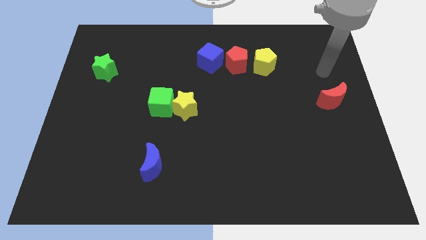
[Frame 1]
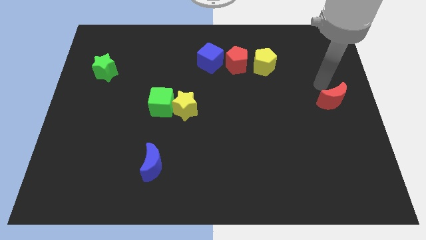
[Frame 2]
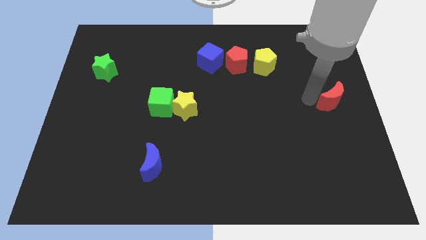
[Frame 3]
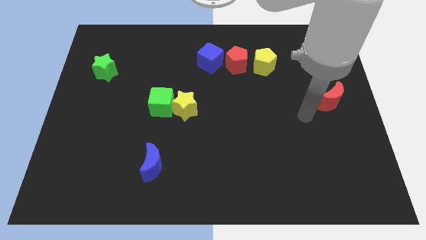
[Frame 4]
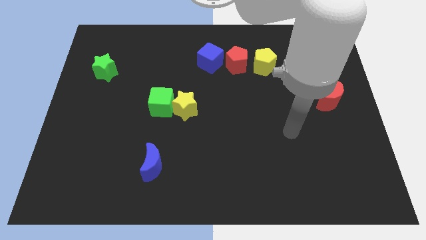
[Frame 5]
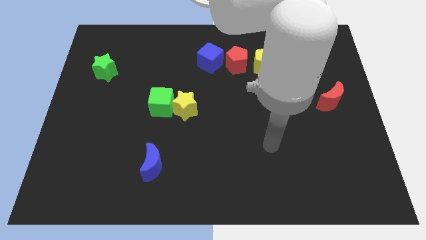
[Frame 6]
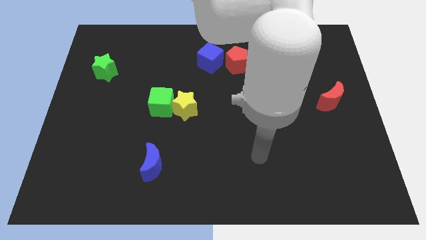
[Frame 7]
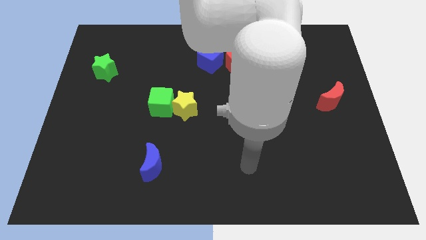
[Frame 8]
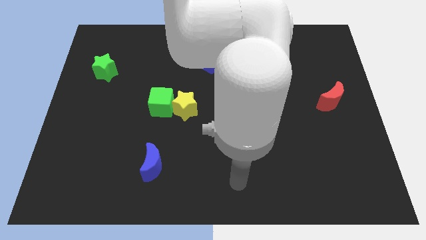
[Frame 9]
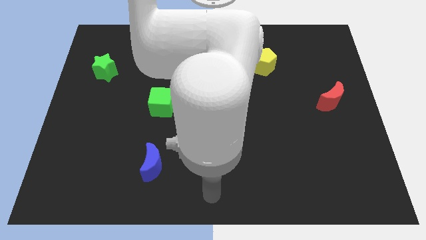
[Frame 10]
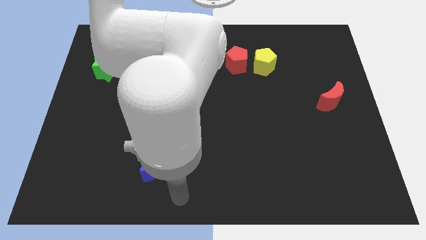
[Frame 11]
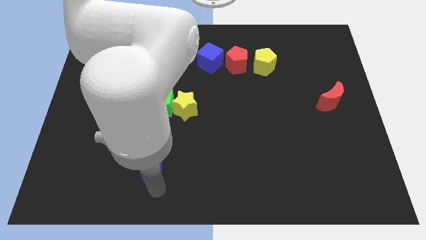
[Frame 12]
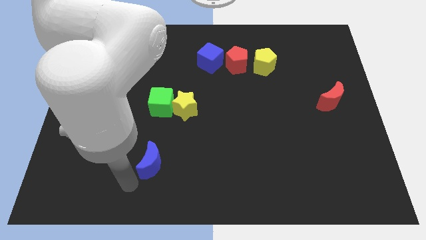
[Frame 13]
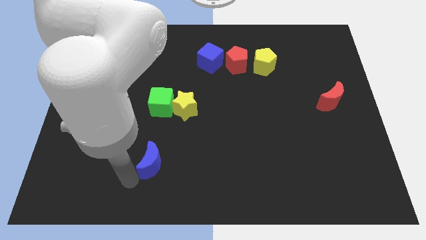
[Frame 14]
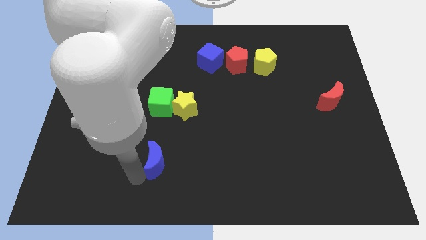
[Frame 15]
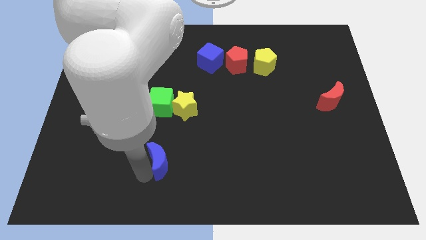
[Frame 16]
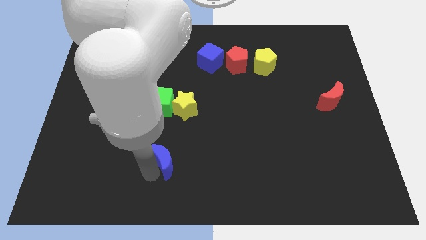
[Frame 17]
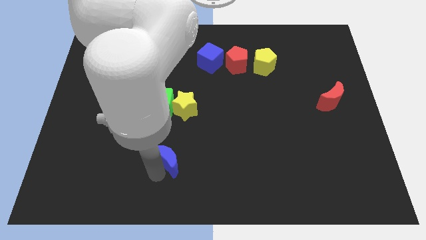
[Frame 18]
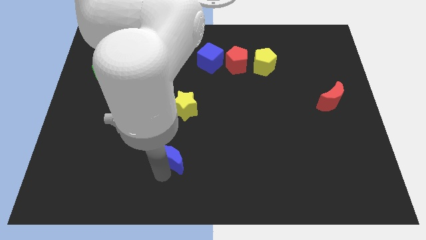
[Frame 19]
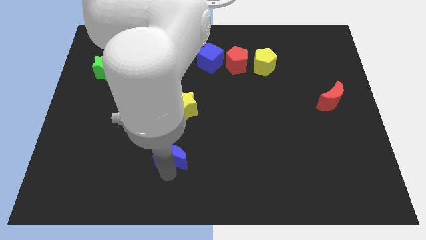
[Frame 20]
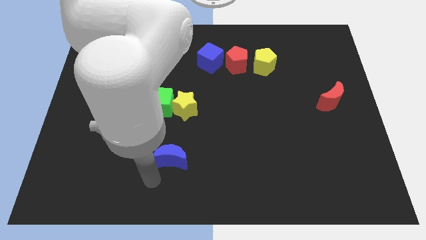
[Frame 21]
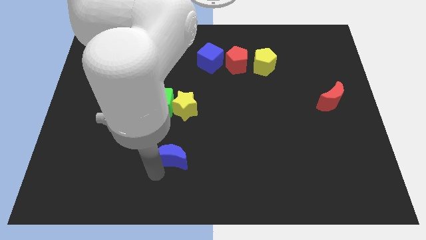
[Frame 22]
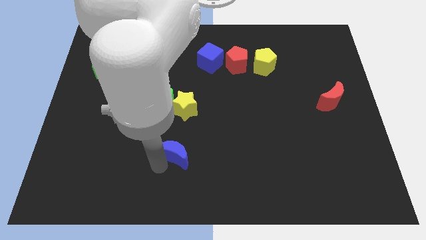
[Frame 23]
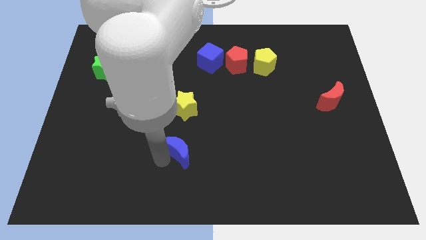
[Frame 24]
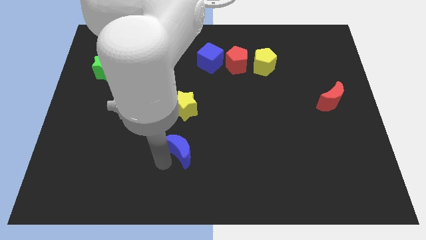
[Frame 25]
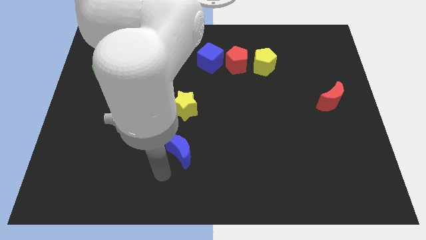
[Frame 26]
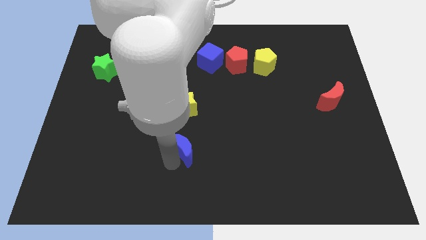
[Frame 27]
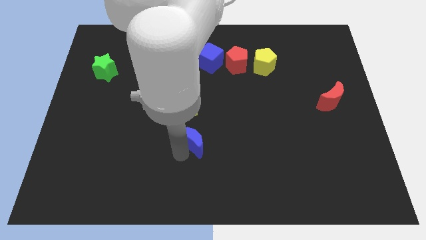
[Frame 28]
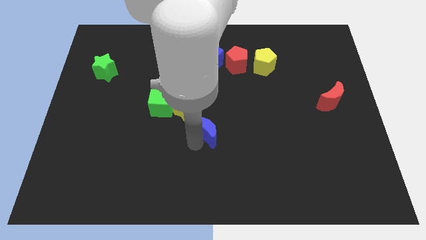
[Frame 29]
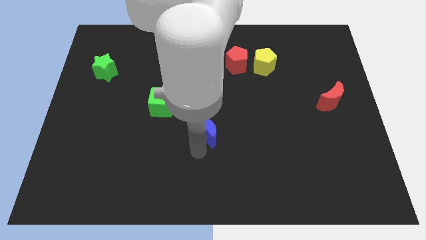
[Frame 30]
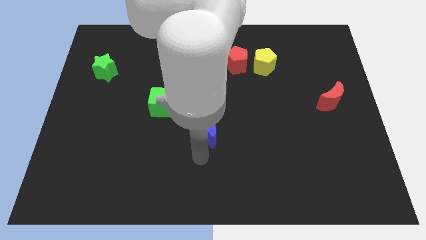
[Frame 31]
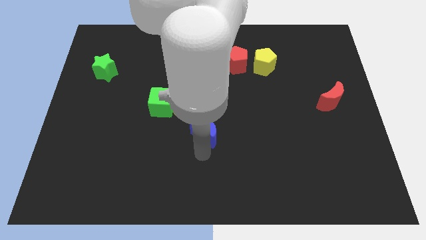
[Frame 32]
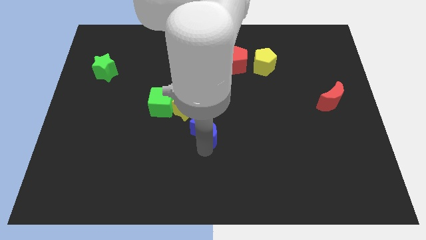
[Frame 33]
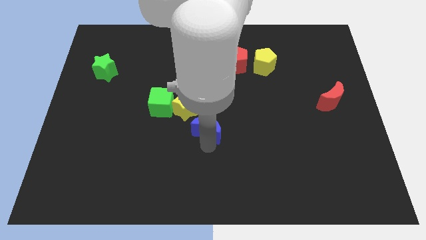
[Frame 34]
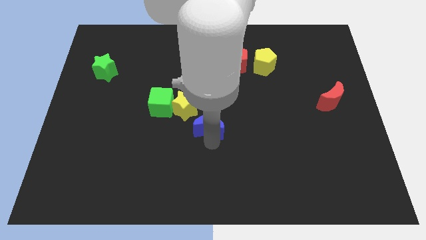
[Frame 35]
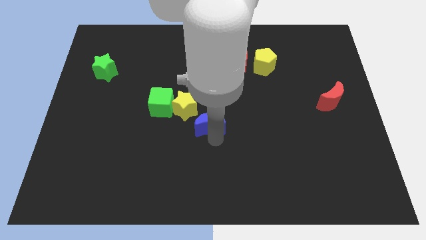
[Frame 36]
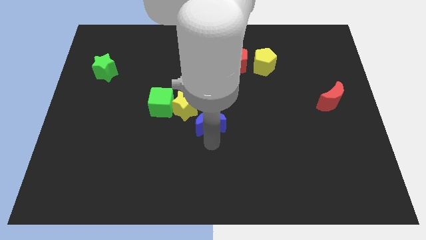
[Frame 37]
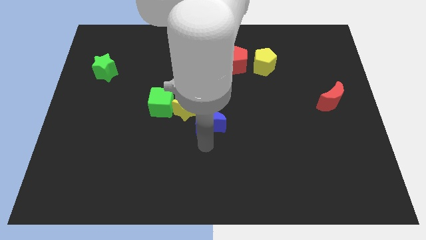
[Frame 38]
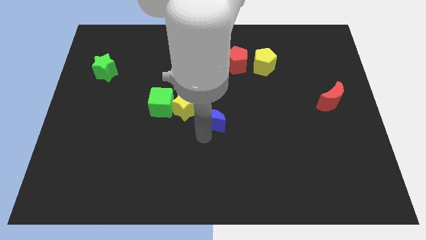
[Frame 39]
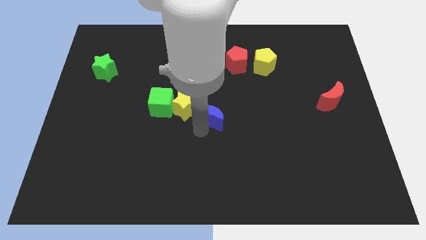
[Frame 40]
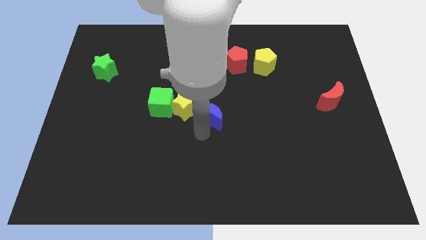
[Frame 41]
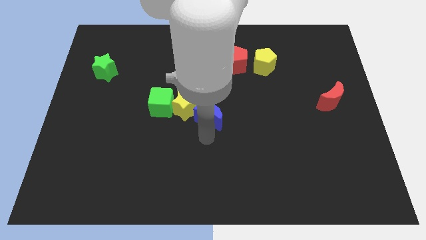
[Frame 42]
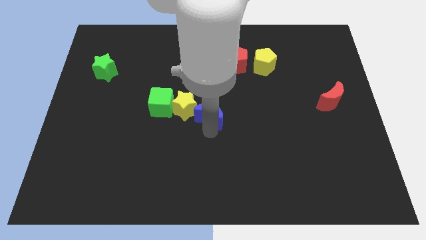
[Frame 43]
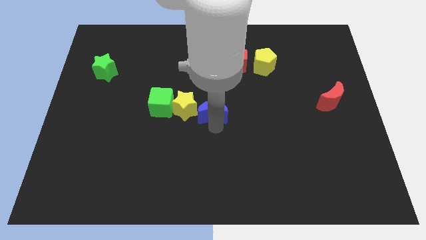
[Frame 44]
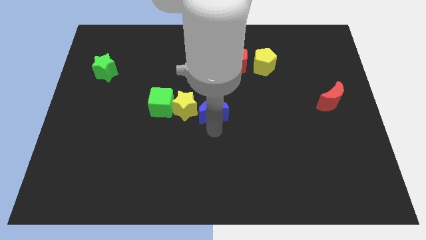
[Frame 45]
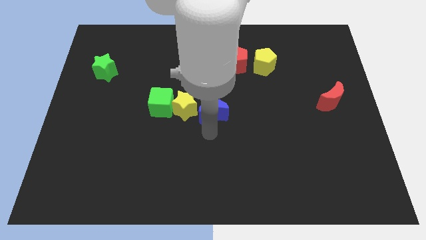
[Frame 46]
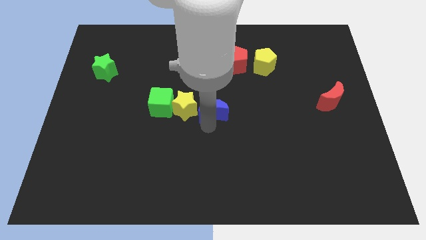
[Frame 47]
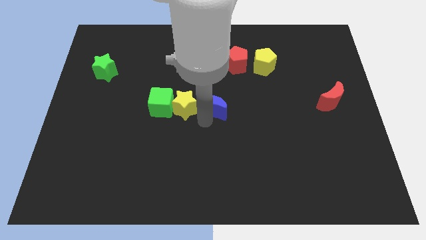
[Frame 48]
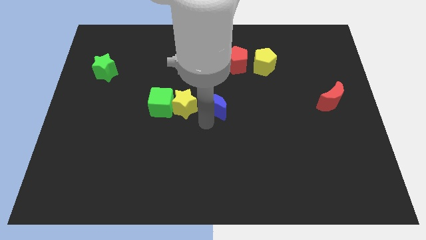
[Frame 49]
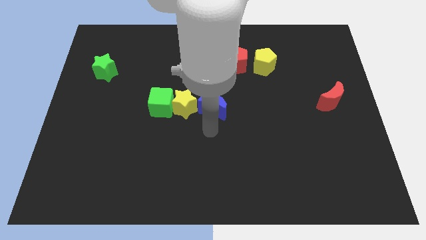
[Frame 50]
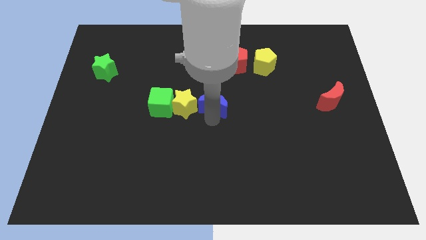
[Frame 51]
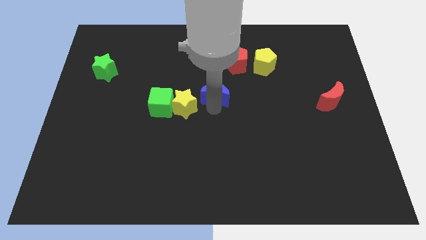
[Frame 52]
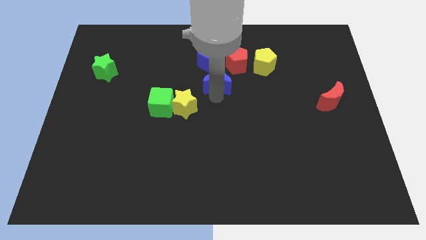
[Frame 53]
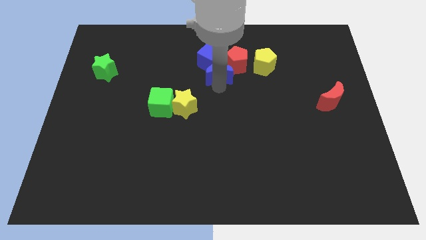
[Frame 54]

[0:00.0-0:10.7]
put the blue moon towards the blue cube

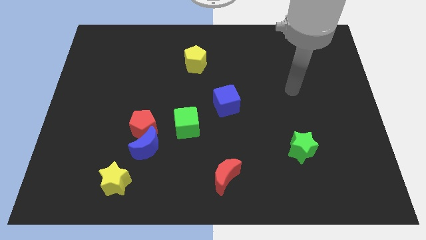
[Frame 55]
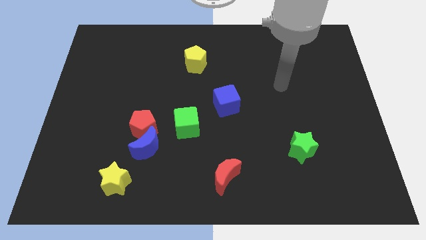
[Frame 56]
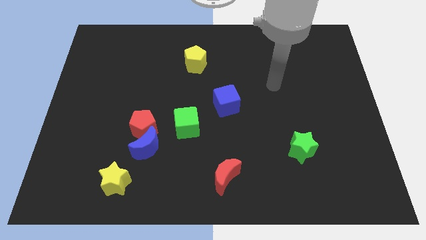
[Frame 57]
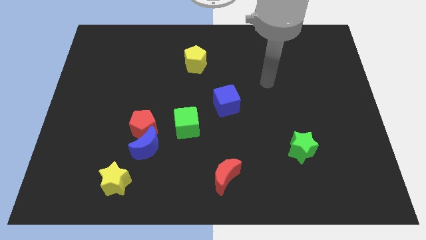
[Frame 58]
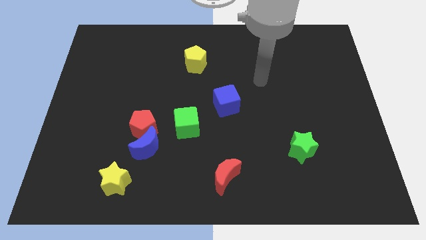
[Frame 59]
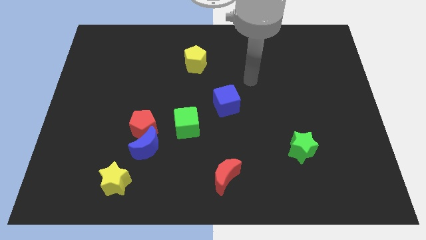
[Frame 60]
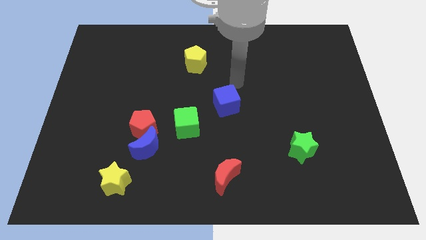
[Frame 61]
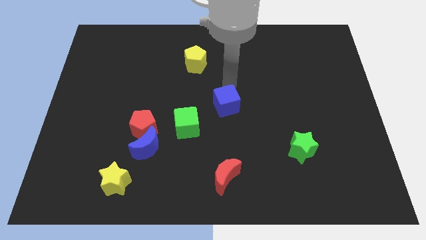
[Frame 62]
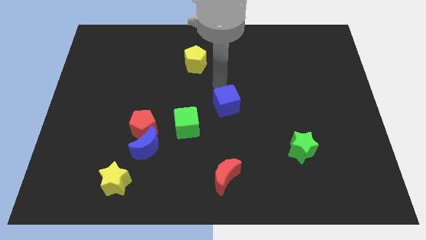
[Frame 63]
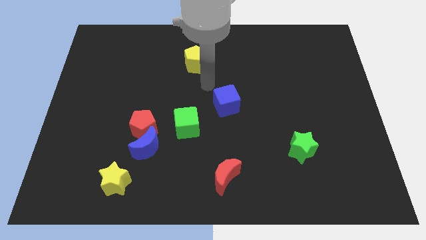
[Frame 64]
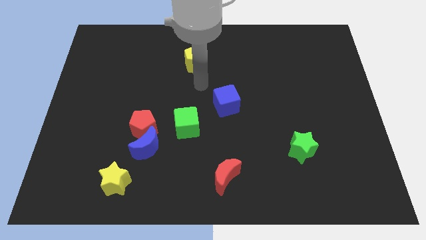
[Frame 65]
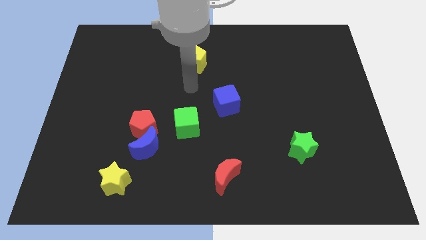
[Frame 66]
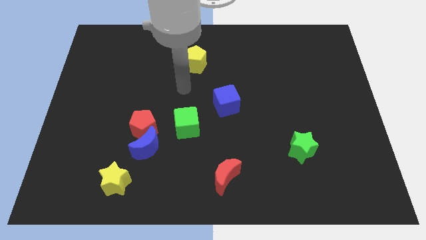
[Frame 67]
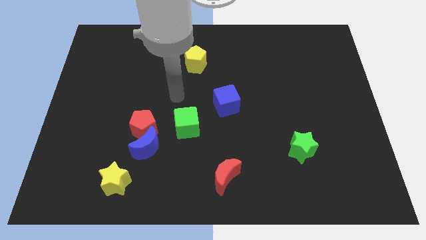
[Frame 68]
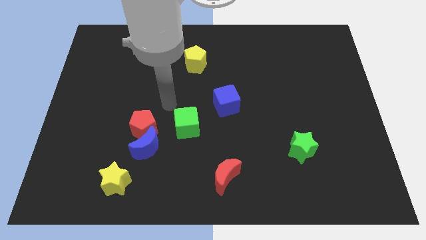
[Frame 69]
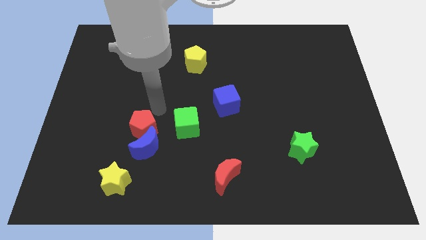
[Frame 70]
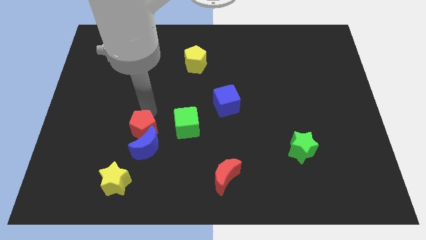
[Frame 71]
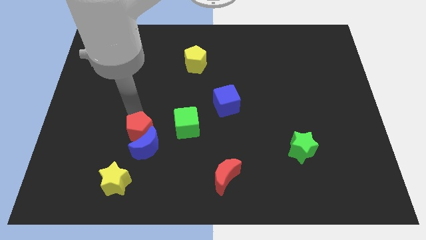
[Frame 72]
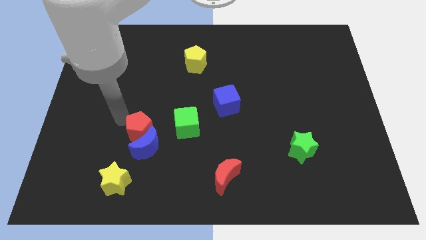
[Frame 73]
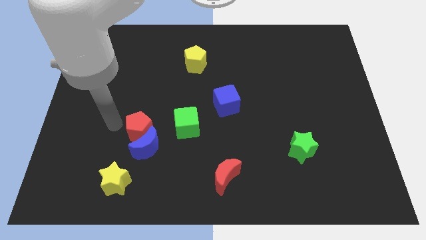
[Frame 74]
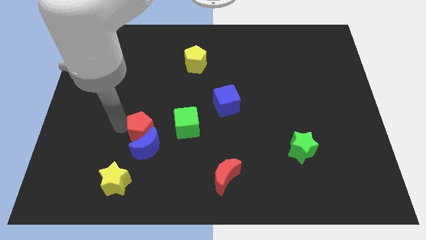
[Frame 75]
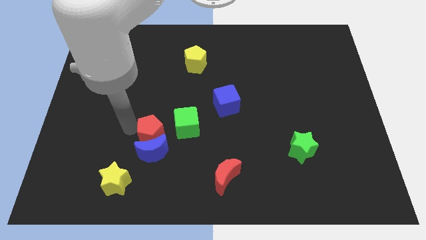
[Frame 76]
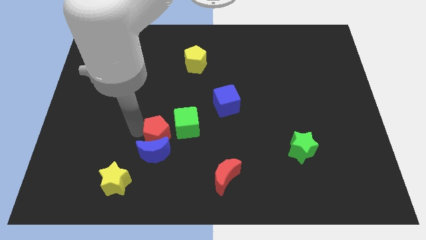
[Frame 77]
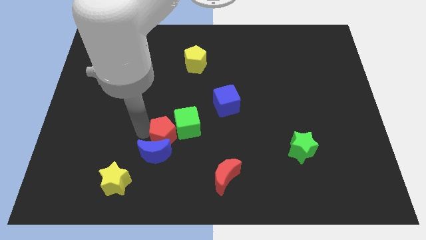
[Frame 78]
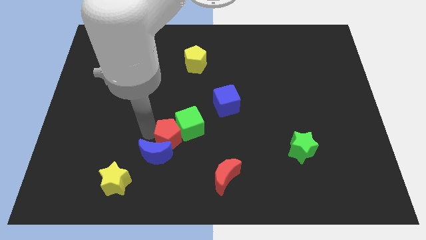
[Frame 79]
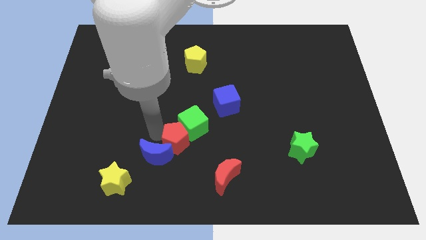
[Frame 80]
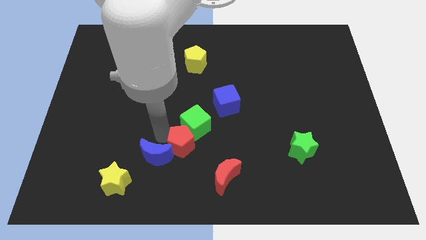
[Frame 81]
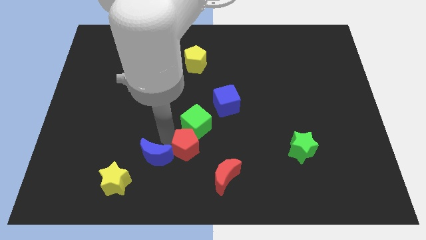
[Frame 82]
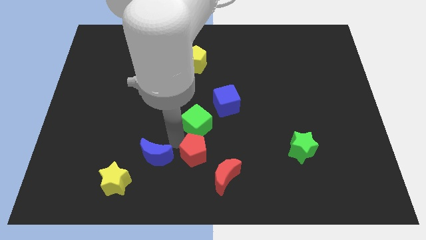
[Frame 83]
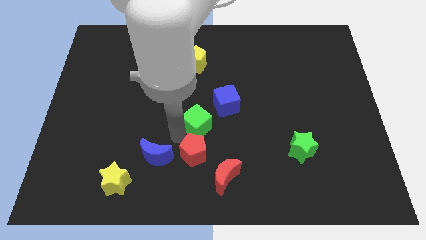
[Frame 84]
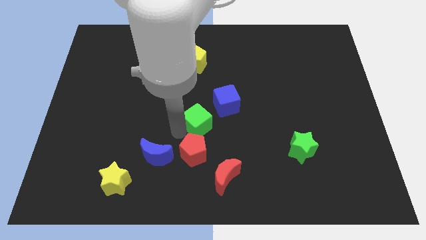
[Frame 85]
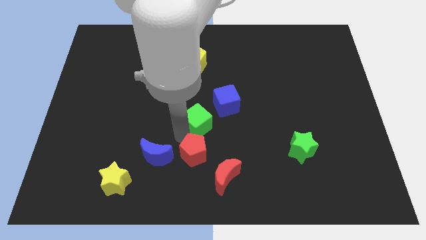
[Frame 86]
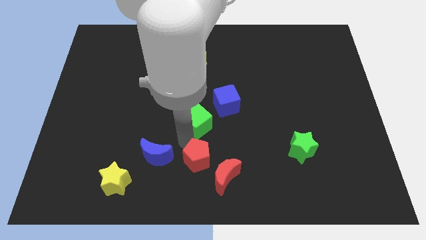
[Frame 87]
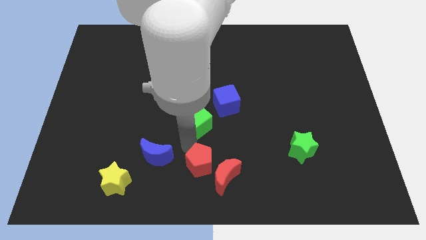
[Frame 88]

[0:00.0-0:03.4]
slide the red pentagon next to the red moon
